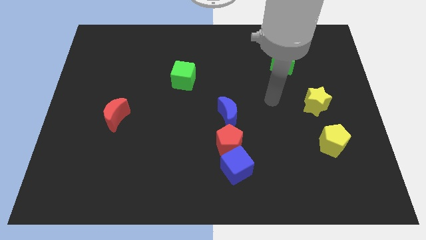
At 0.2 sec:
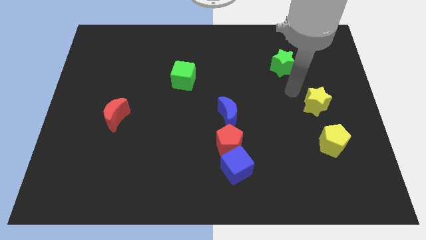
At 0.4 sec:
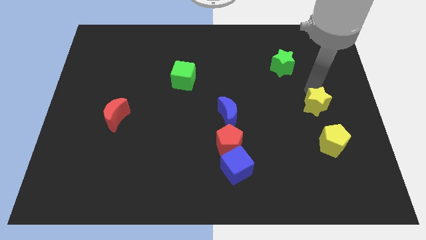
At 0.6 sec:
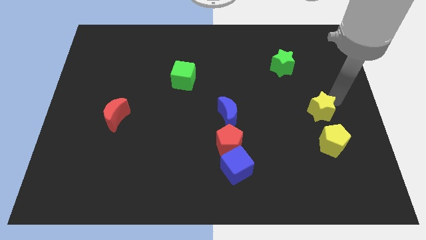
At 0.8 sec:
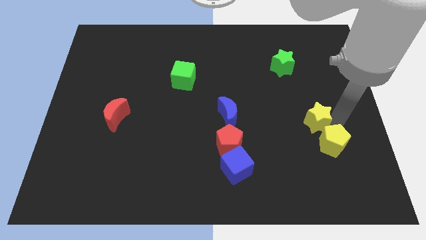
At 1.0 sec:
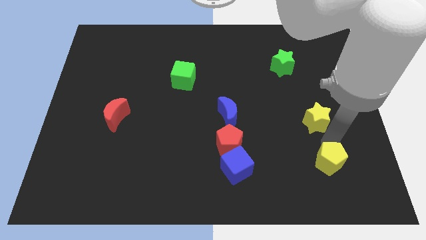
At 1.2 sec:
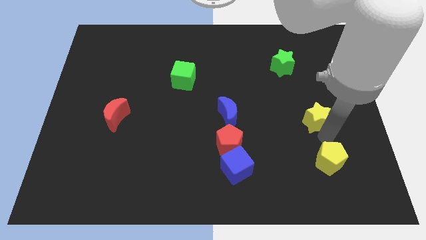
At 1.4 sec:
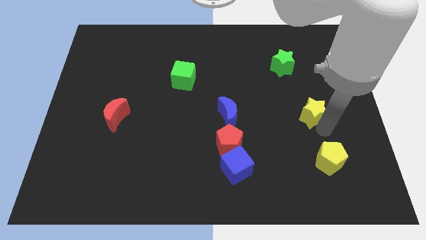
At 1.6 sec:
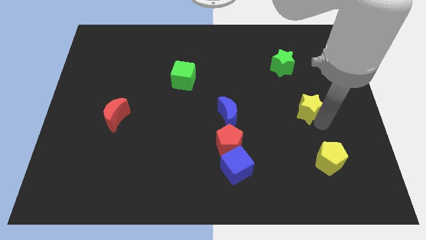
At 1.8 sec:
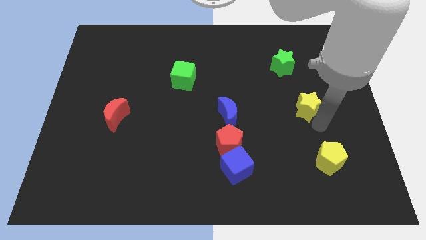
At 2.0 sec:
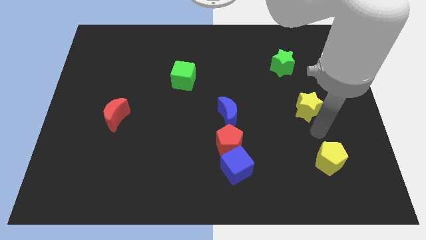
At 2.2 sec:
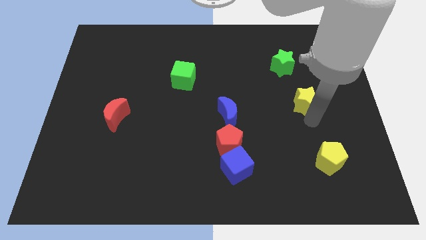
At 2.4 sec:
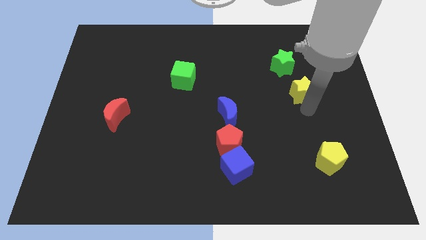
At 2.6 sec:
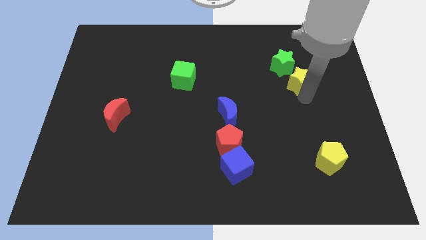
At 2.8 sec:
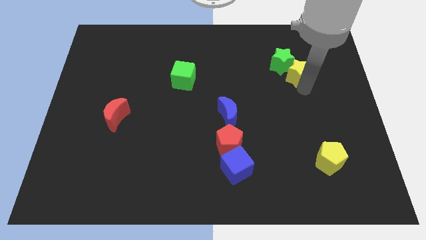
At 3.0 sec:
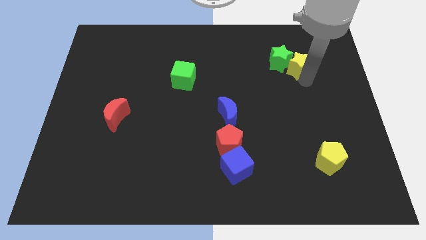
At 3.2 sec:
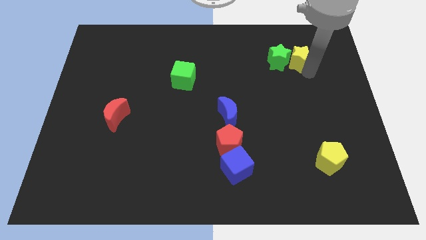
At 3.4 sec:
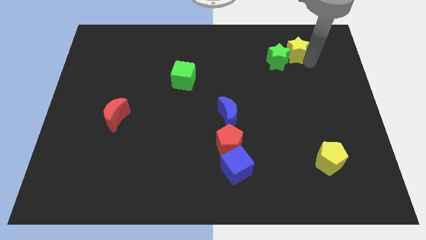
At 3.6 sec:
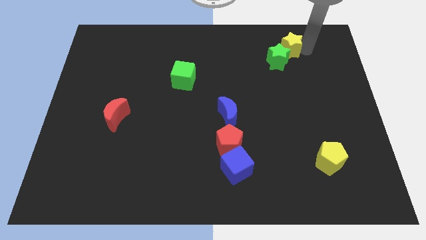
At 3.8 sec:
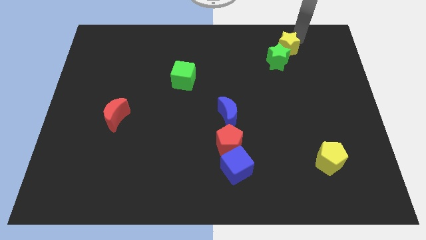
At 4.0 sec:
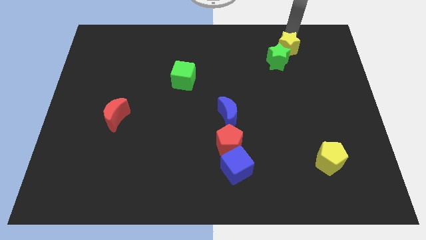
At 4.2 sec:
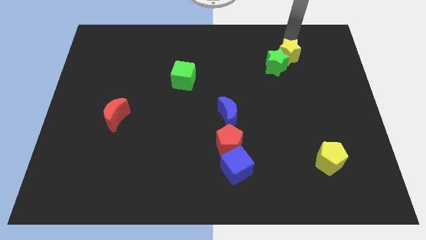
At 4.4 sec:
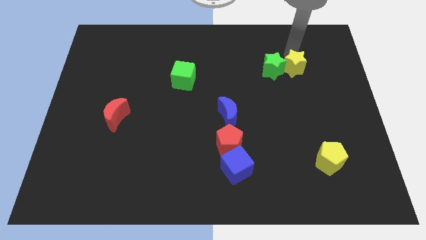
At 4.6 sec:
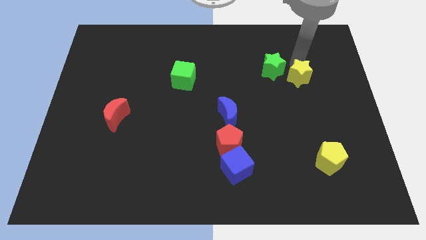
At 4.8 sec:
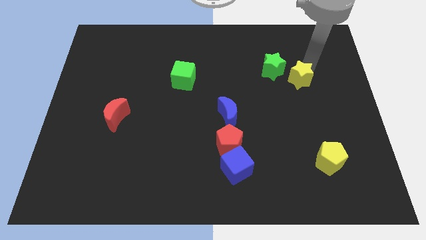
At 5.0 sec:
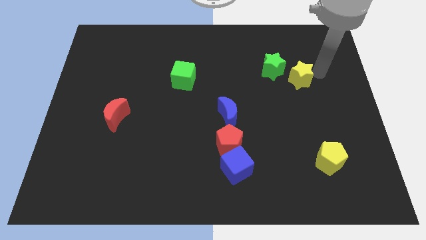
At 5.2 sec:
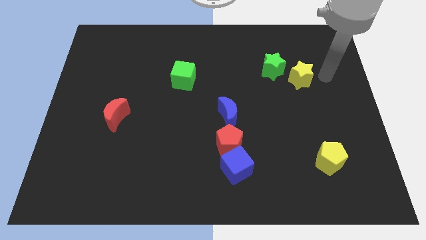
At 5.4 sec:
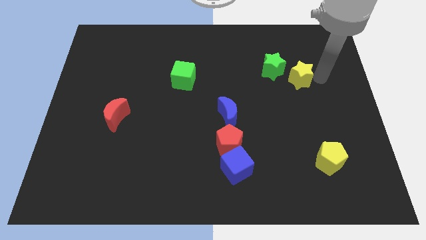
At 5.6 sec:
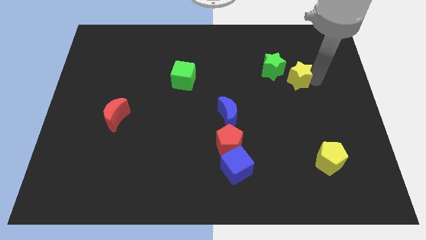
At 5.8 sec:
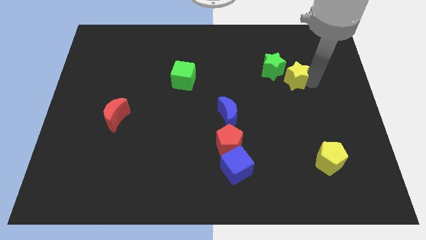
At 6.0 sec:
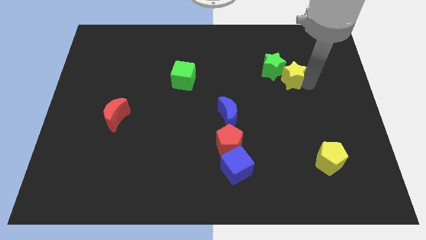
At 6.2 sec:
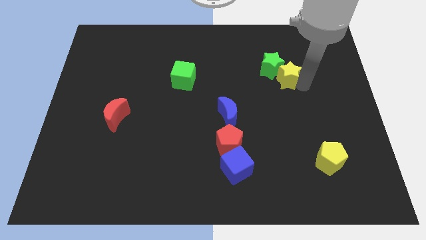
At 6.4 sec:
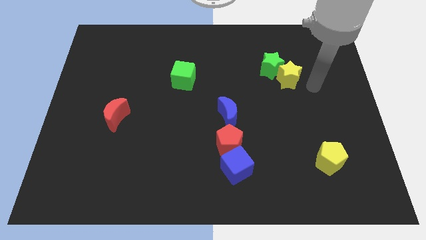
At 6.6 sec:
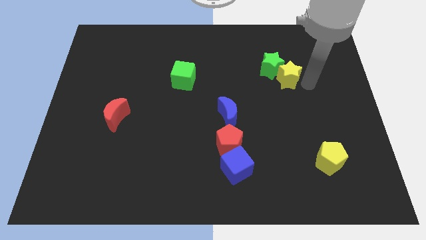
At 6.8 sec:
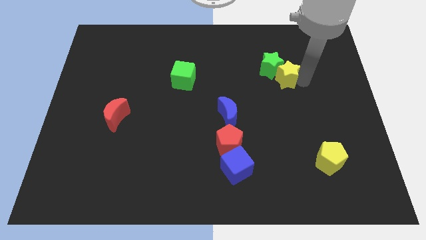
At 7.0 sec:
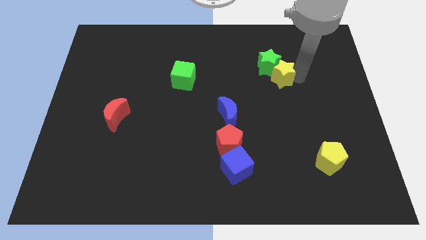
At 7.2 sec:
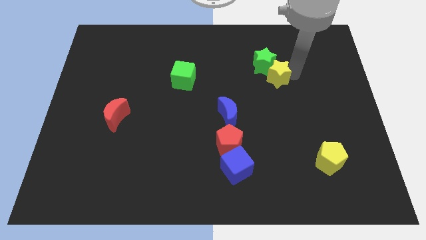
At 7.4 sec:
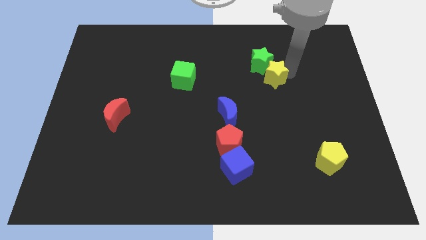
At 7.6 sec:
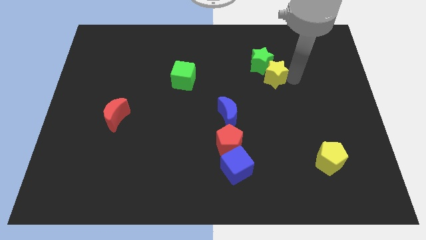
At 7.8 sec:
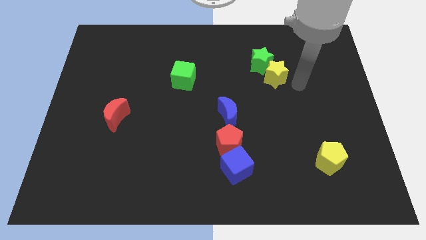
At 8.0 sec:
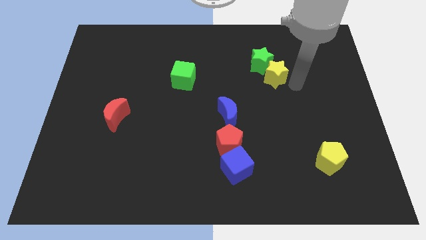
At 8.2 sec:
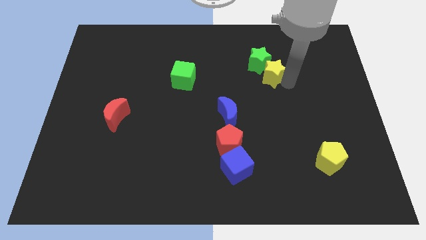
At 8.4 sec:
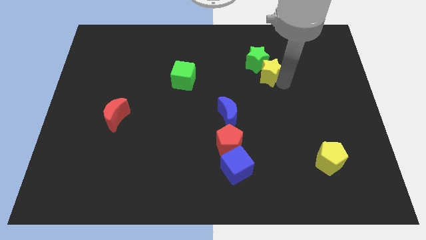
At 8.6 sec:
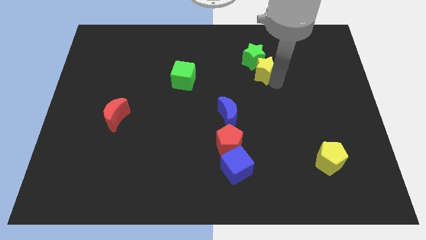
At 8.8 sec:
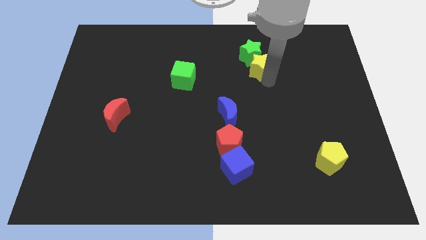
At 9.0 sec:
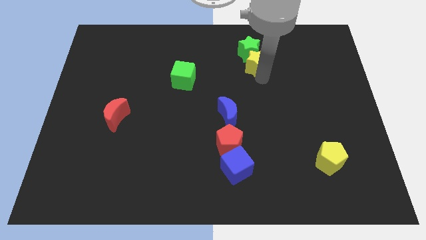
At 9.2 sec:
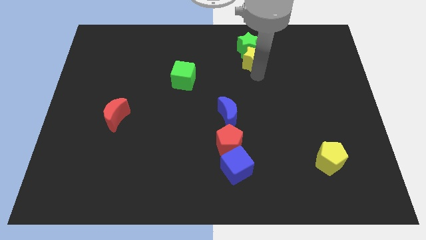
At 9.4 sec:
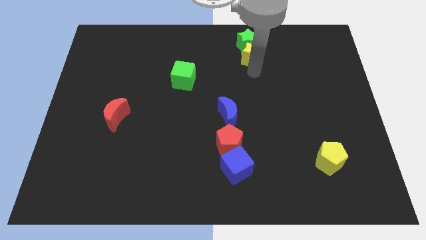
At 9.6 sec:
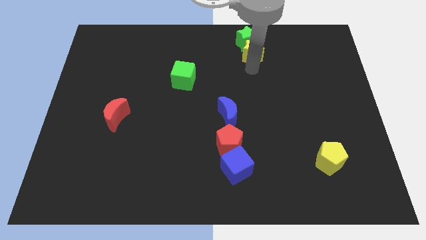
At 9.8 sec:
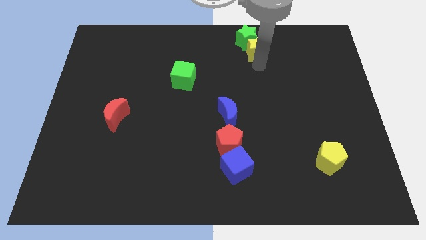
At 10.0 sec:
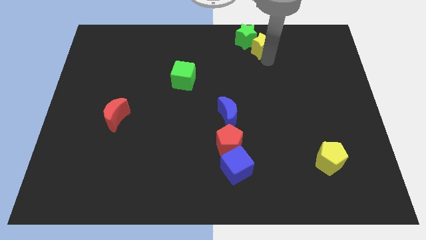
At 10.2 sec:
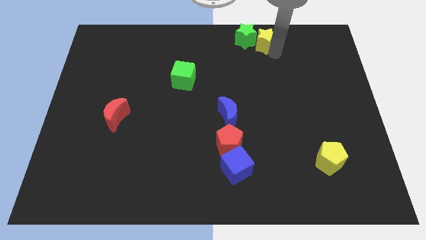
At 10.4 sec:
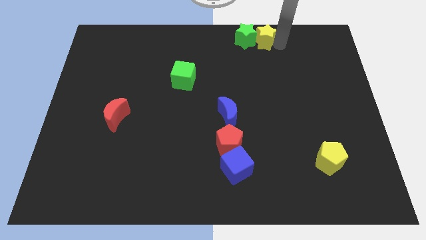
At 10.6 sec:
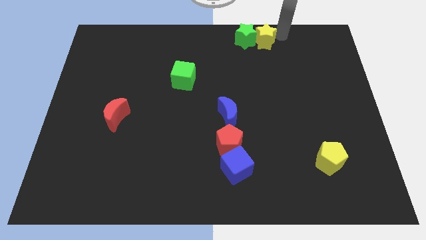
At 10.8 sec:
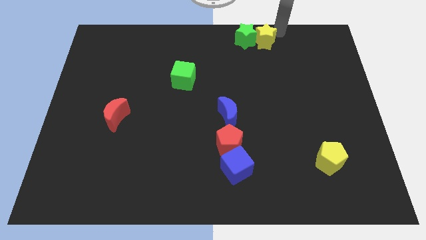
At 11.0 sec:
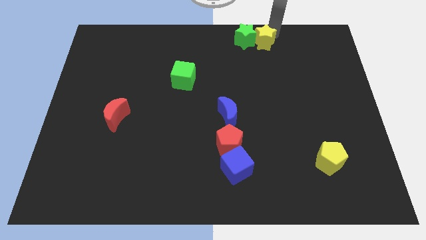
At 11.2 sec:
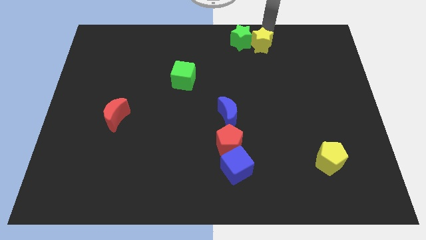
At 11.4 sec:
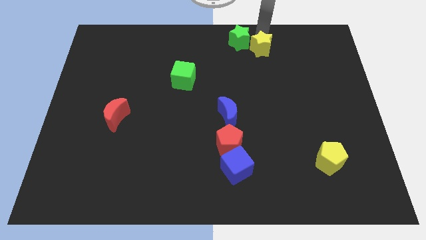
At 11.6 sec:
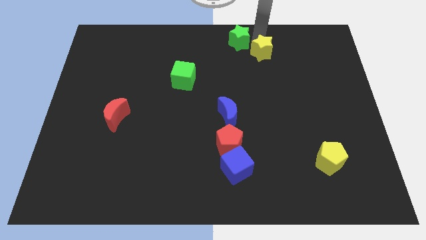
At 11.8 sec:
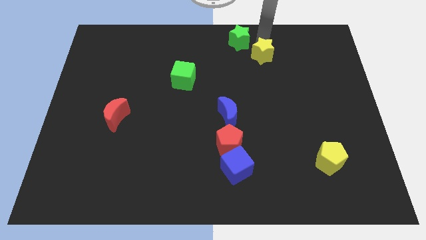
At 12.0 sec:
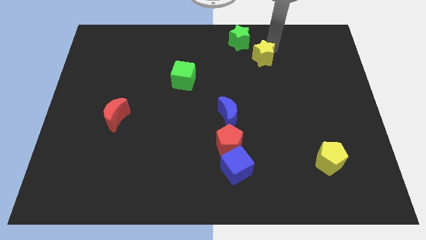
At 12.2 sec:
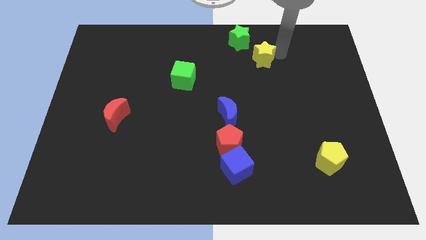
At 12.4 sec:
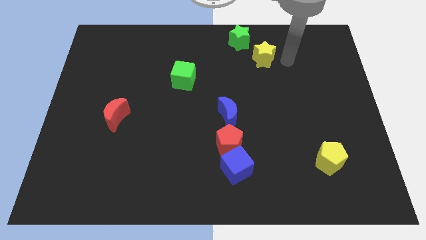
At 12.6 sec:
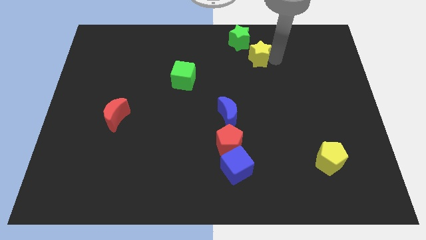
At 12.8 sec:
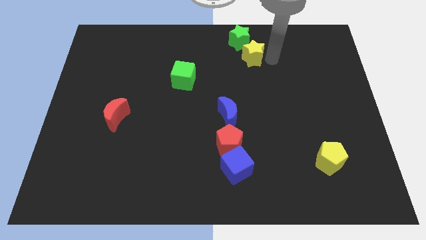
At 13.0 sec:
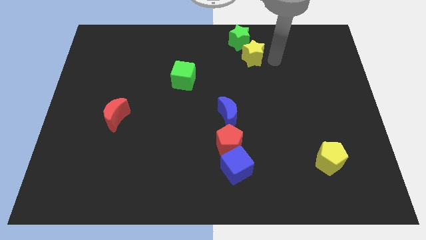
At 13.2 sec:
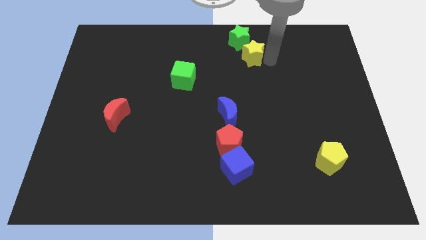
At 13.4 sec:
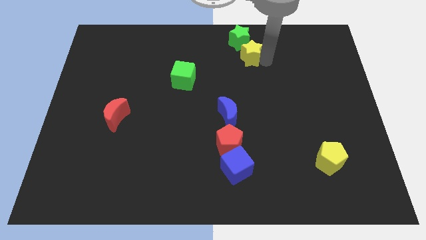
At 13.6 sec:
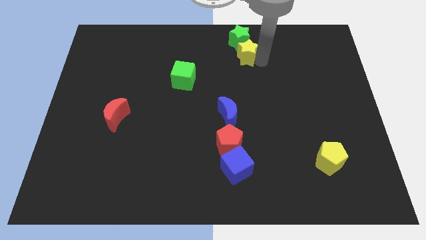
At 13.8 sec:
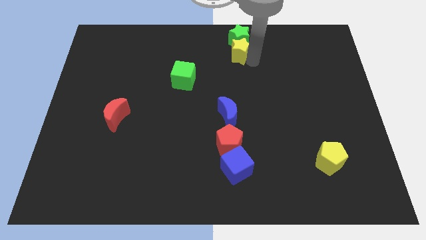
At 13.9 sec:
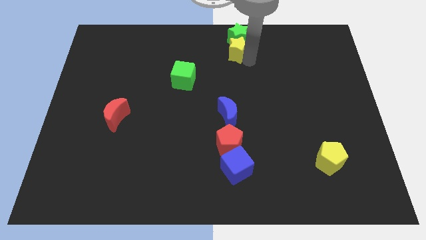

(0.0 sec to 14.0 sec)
push the yellow star to the towards your base
